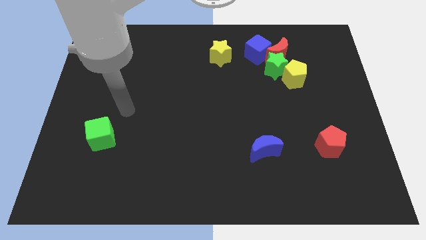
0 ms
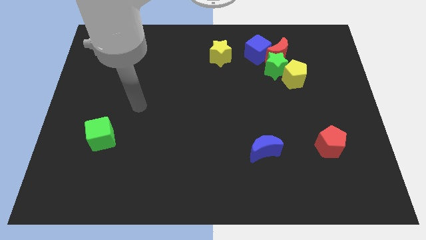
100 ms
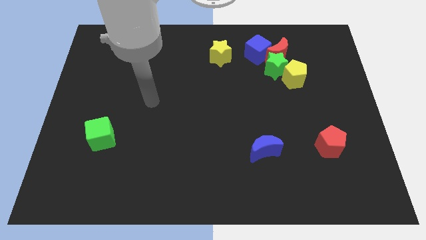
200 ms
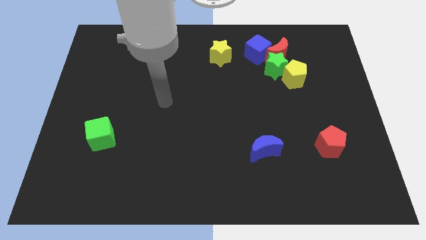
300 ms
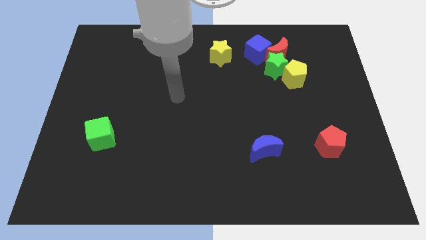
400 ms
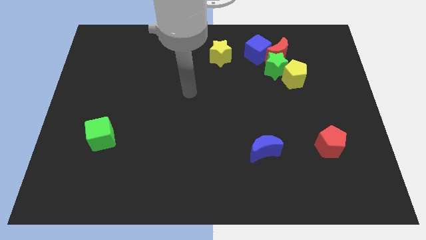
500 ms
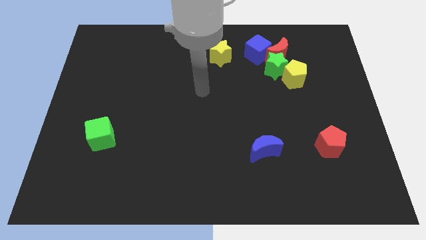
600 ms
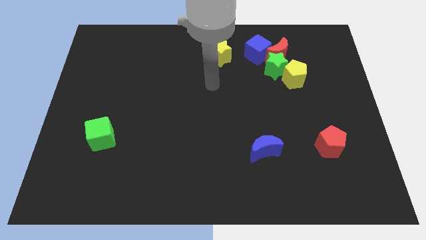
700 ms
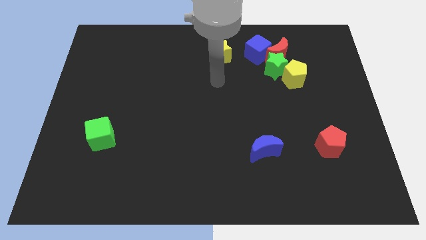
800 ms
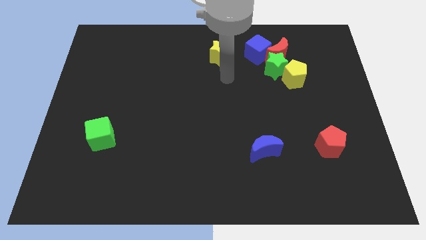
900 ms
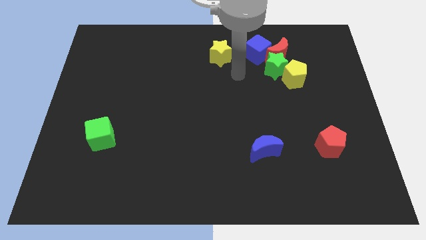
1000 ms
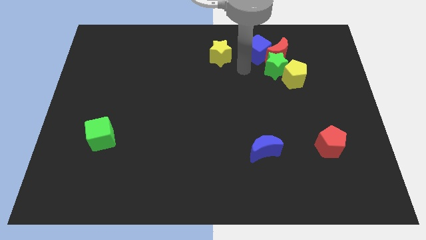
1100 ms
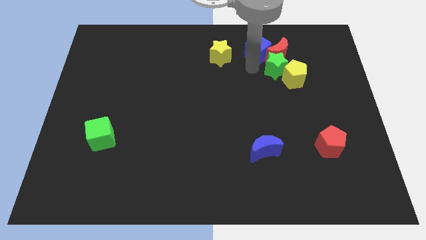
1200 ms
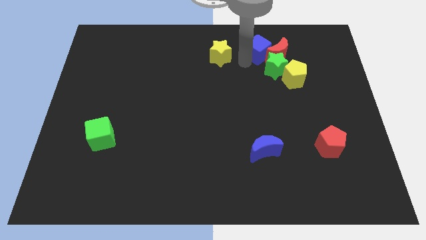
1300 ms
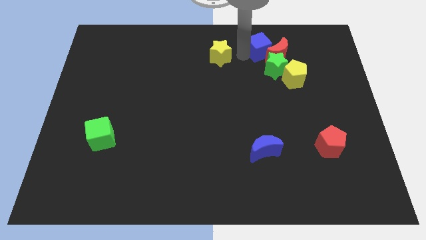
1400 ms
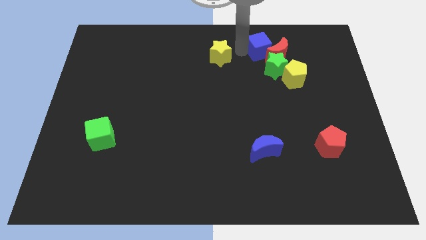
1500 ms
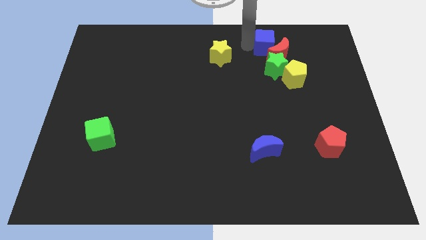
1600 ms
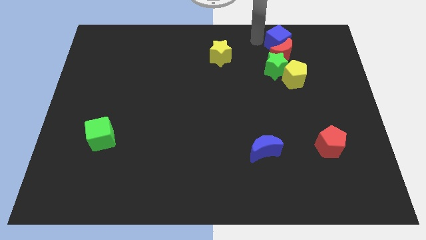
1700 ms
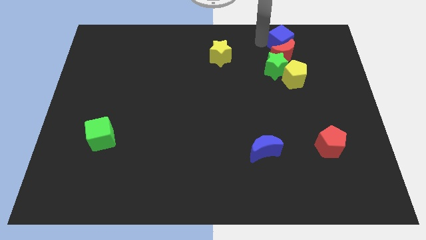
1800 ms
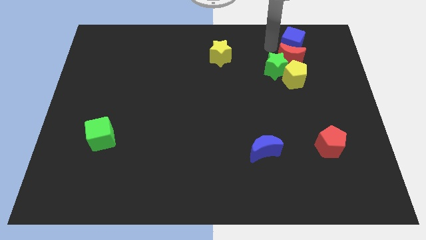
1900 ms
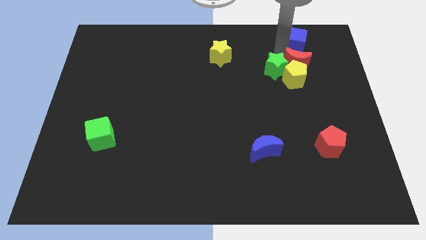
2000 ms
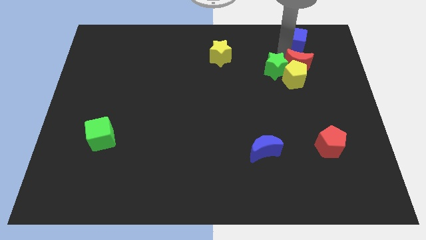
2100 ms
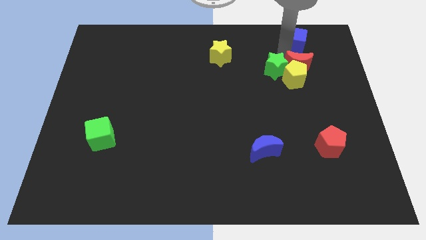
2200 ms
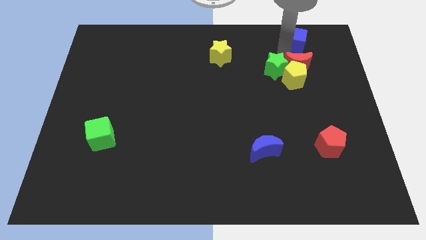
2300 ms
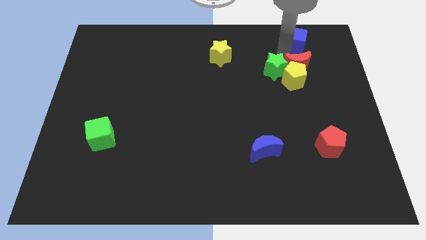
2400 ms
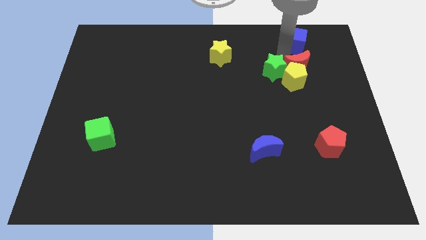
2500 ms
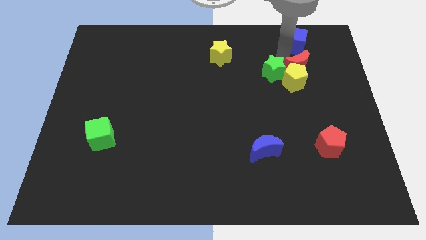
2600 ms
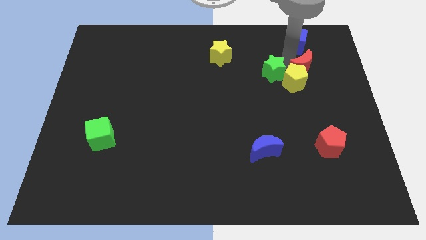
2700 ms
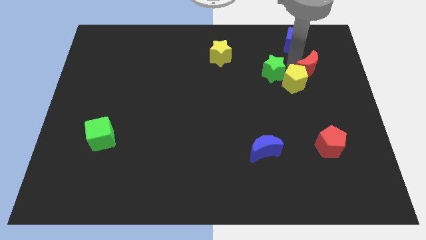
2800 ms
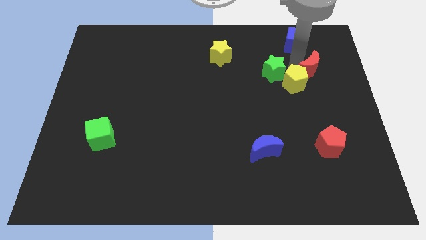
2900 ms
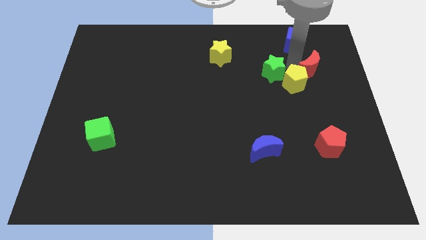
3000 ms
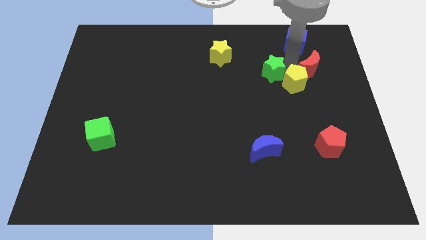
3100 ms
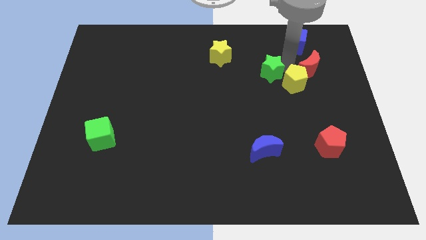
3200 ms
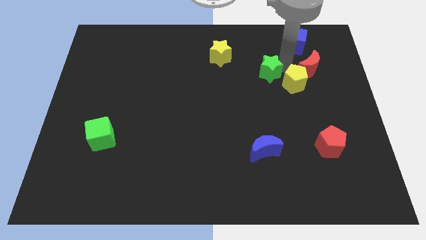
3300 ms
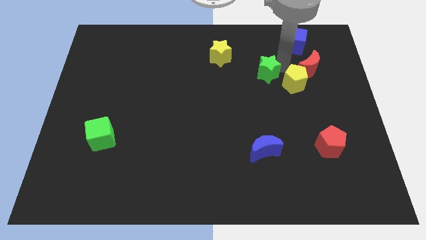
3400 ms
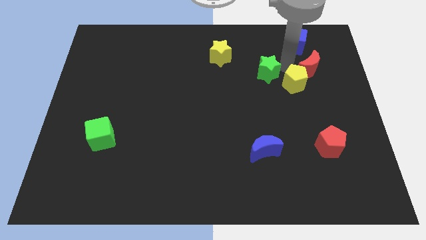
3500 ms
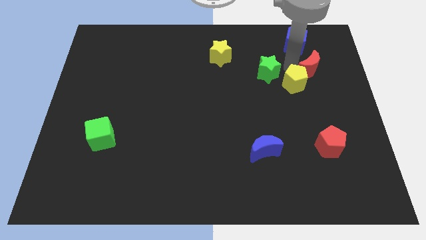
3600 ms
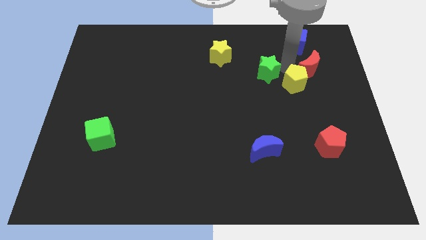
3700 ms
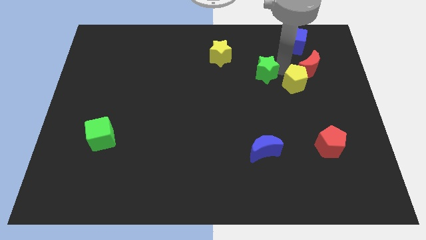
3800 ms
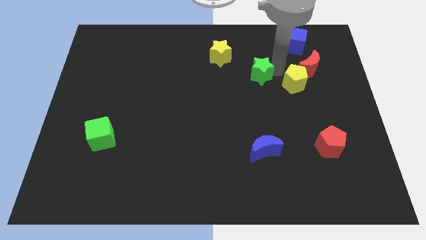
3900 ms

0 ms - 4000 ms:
move the green star away from the red moon, yellow pentagon, and blue cube

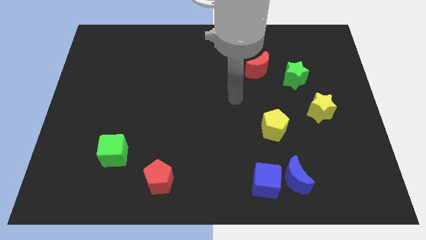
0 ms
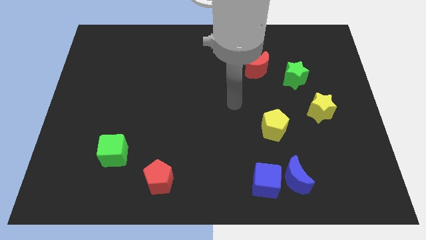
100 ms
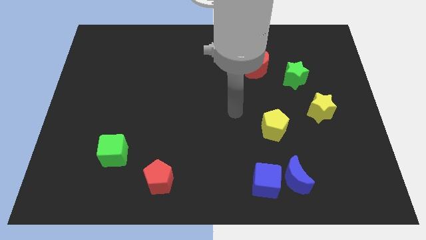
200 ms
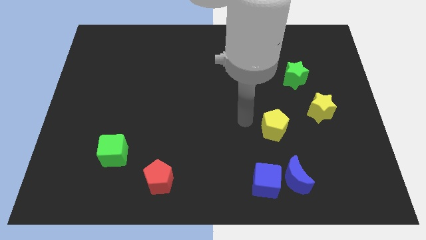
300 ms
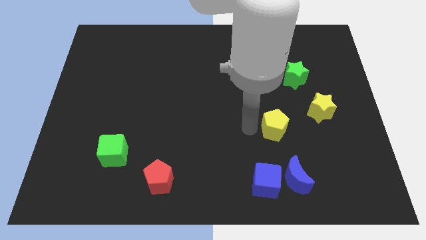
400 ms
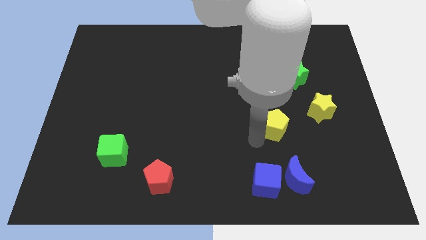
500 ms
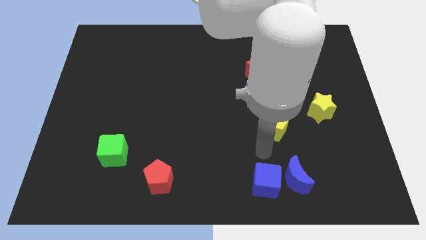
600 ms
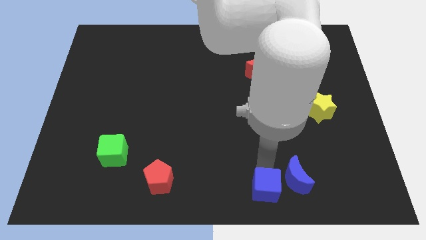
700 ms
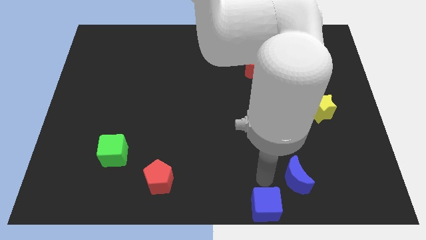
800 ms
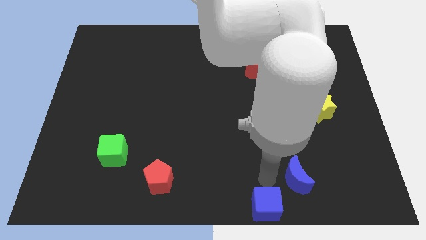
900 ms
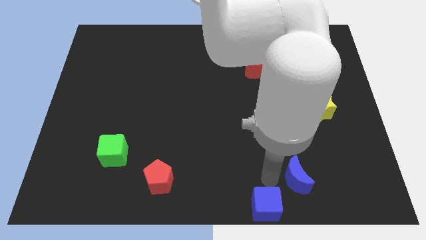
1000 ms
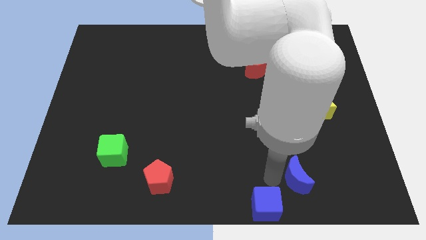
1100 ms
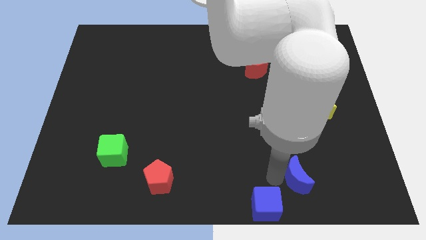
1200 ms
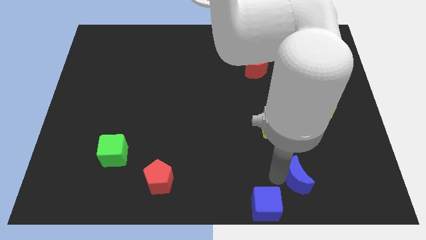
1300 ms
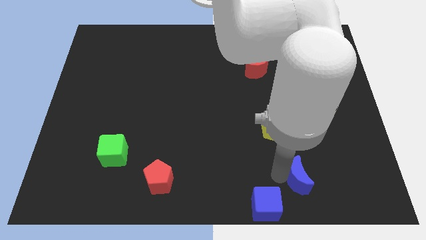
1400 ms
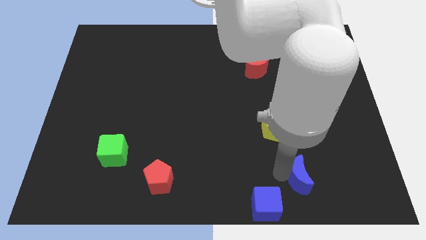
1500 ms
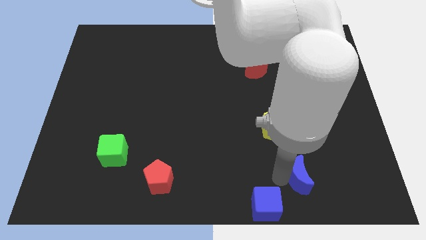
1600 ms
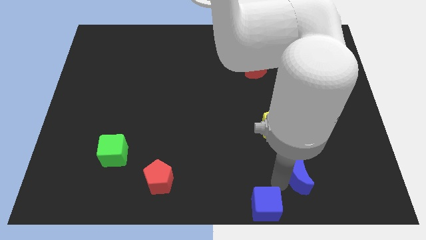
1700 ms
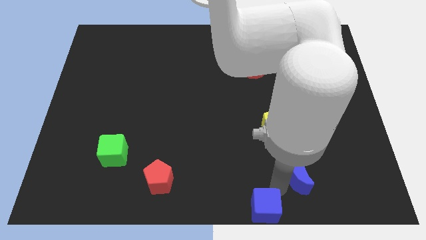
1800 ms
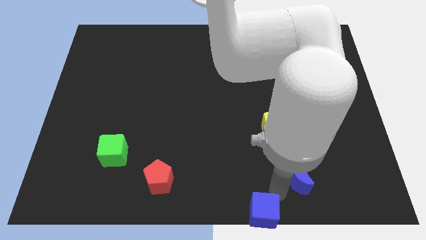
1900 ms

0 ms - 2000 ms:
move the blue moon away from the blue cube

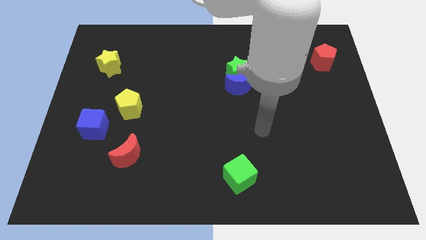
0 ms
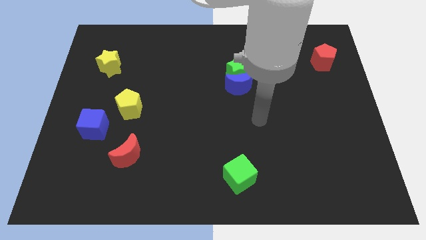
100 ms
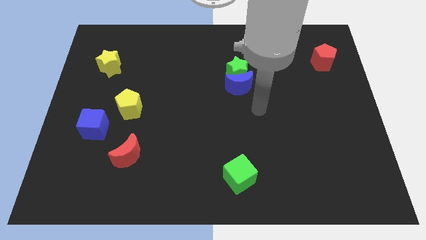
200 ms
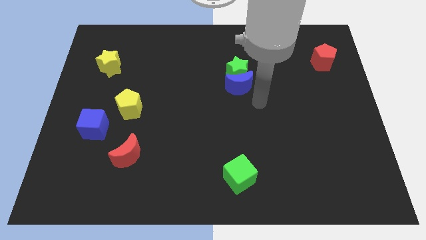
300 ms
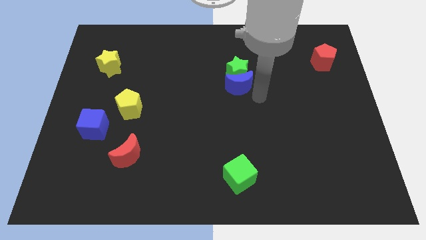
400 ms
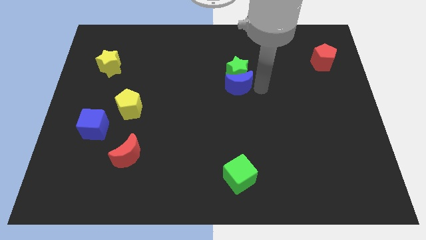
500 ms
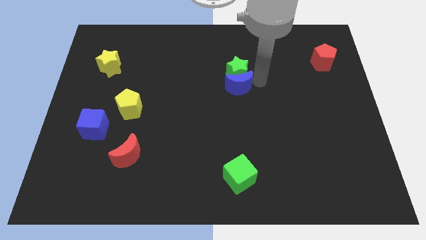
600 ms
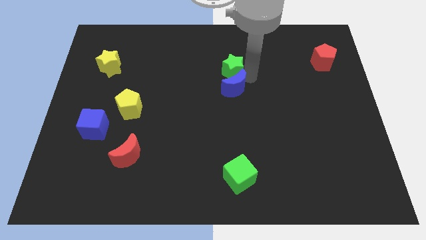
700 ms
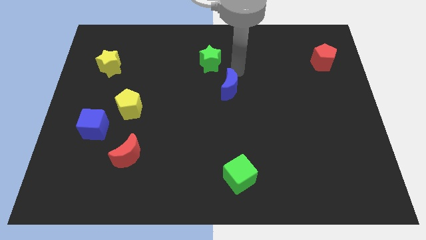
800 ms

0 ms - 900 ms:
move the blue moon away from the green star

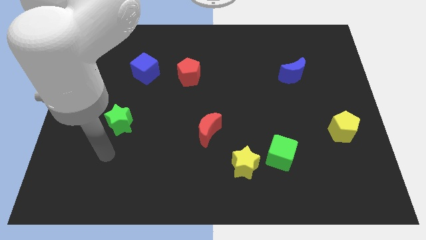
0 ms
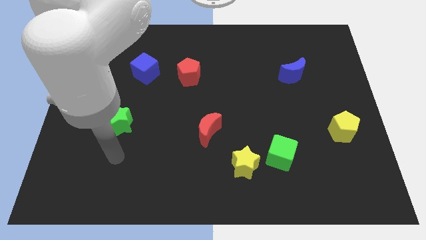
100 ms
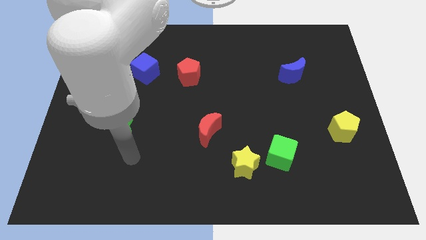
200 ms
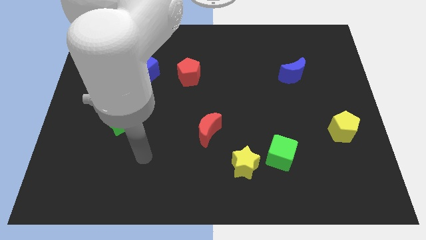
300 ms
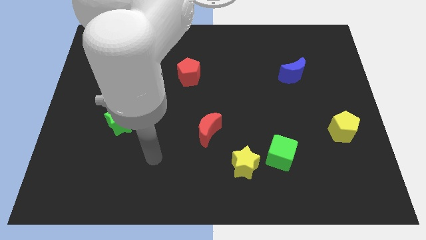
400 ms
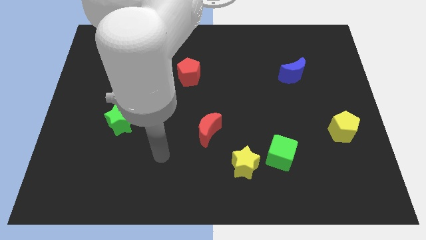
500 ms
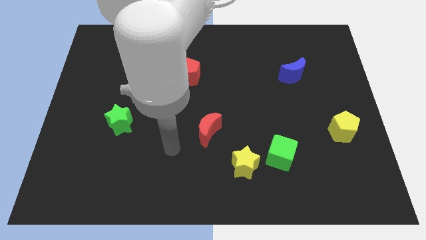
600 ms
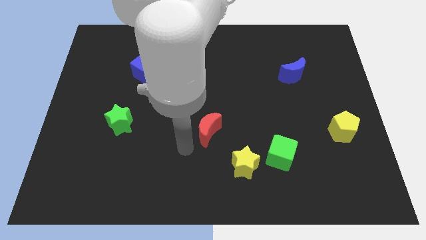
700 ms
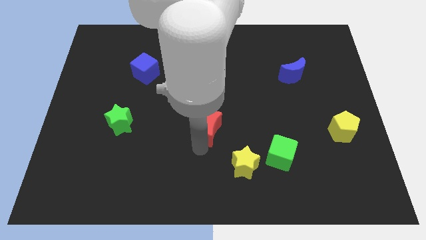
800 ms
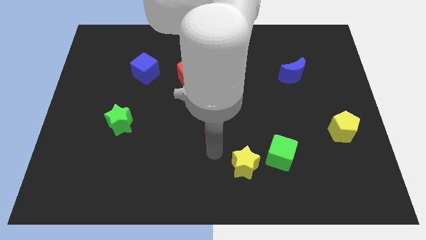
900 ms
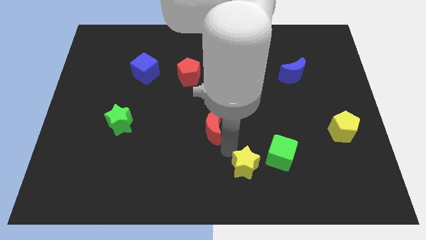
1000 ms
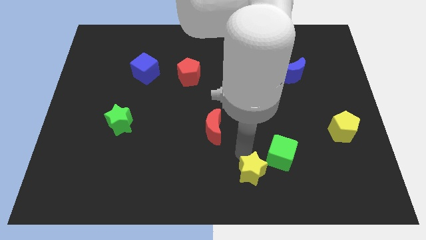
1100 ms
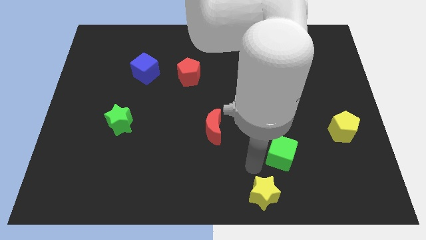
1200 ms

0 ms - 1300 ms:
separate the green cube from the yellow star

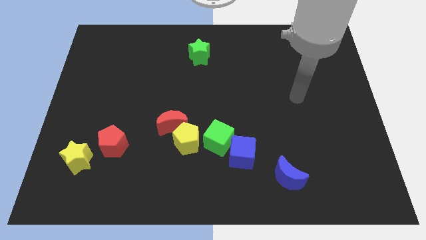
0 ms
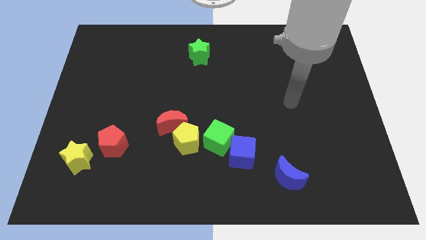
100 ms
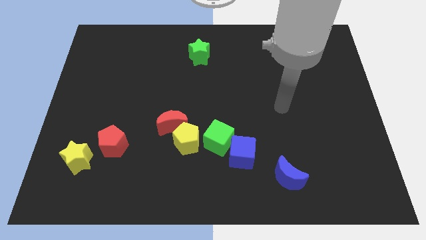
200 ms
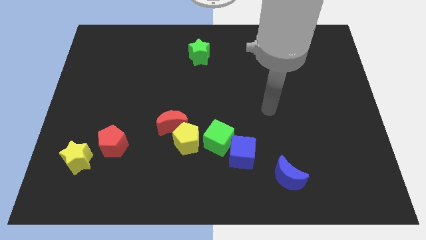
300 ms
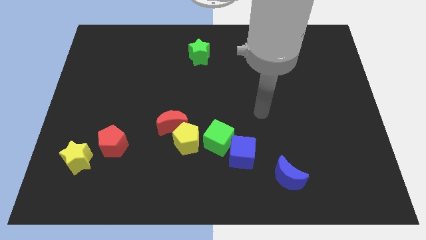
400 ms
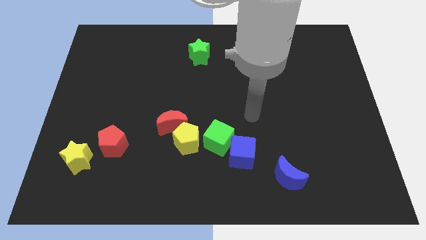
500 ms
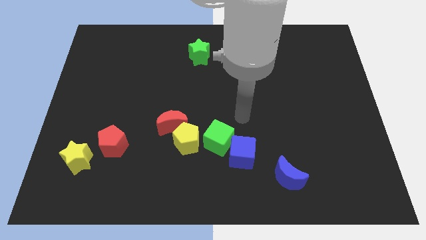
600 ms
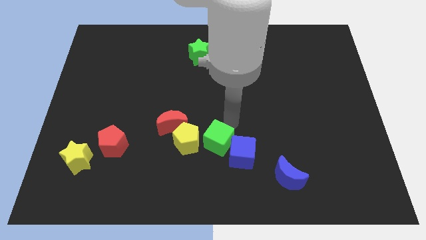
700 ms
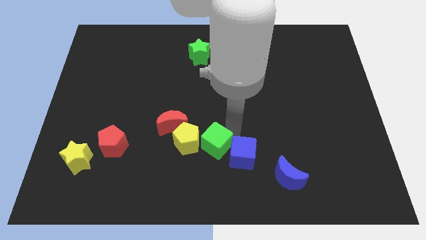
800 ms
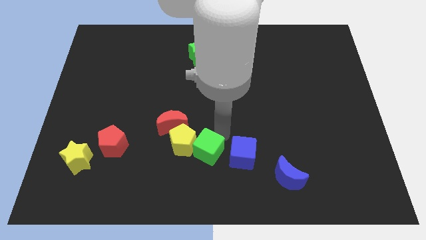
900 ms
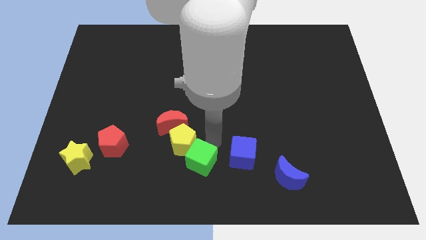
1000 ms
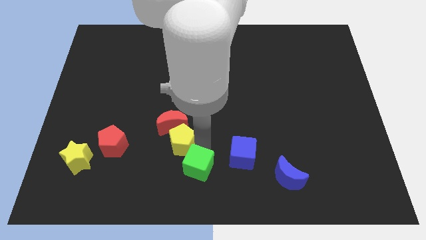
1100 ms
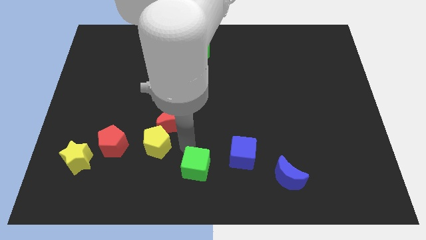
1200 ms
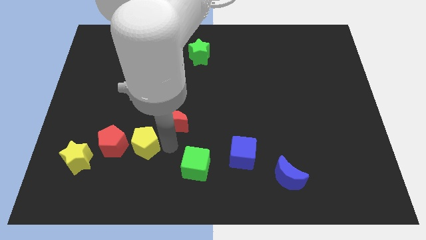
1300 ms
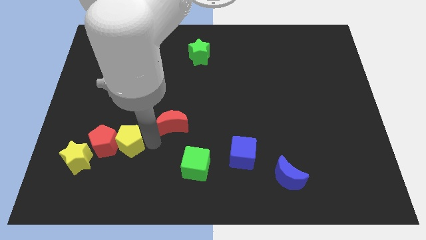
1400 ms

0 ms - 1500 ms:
separate the red moon from the yellow pentagon
